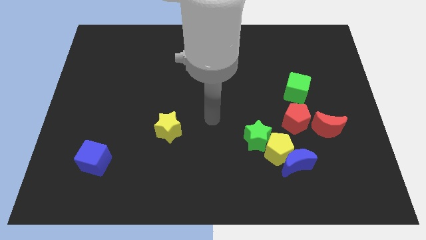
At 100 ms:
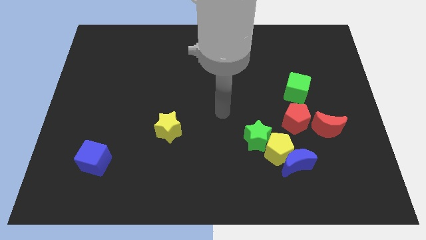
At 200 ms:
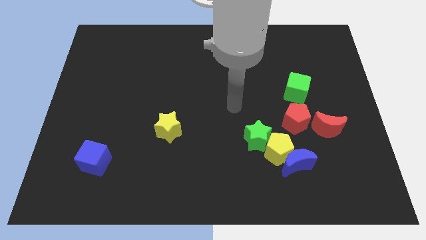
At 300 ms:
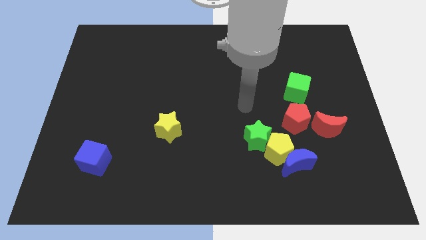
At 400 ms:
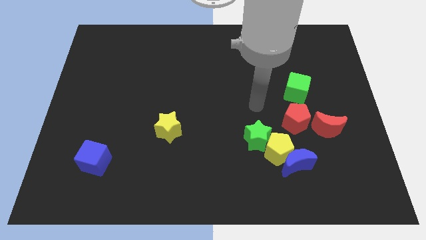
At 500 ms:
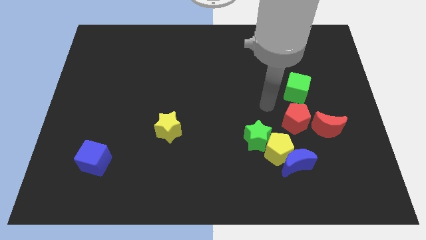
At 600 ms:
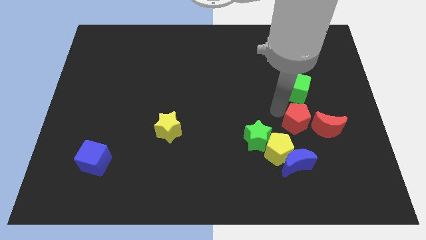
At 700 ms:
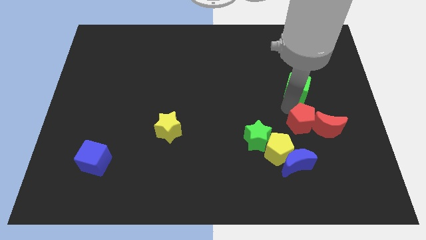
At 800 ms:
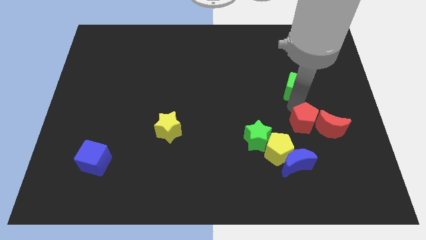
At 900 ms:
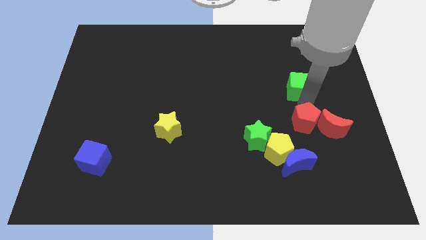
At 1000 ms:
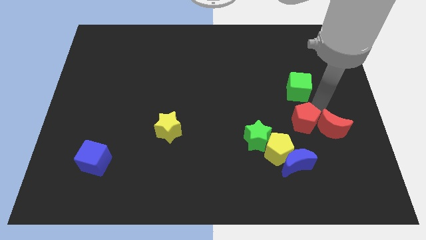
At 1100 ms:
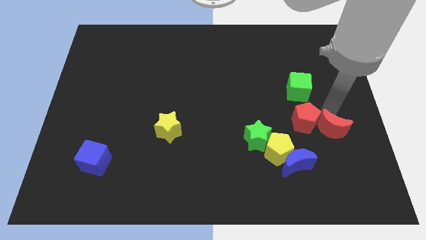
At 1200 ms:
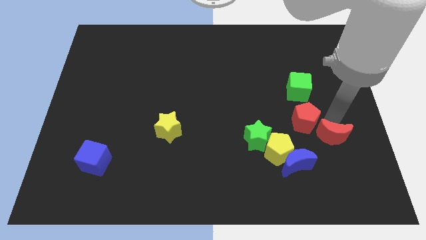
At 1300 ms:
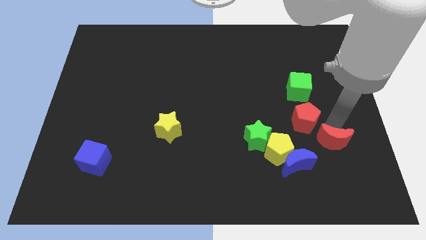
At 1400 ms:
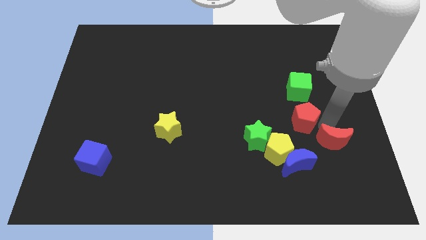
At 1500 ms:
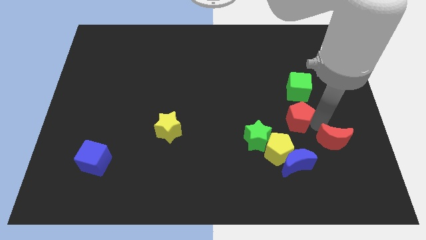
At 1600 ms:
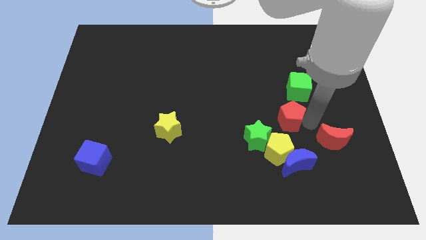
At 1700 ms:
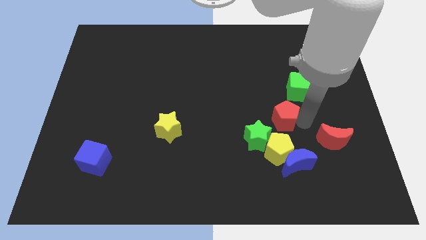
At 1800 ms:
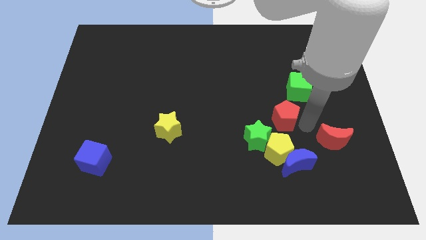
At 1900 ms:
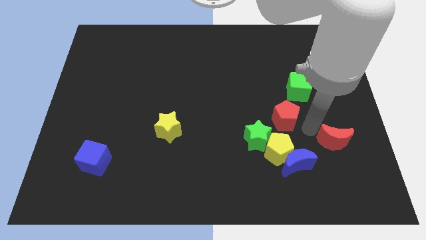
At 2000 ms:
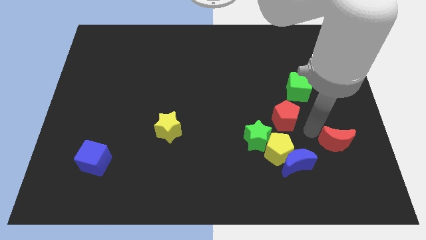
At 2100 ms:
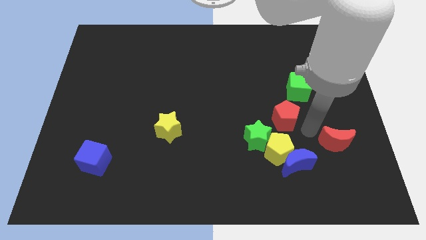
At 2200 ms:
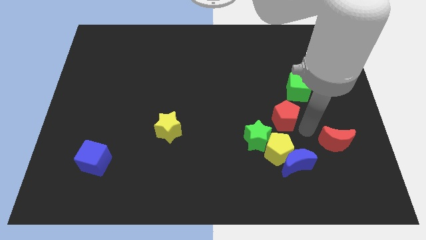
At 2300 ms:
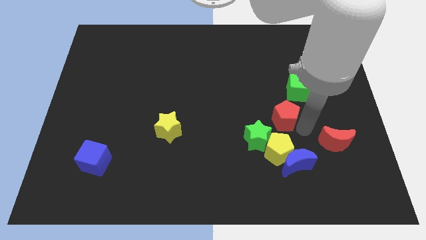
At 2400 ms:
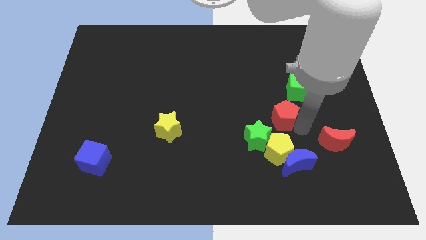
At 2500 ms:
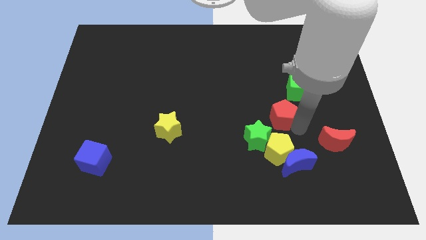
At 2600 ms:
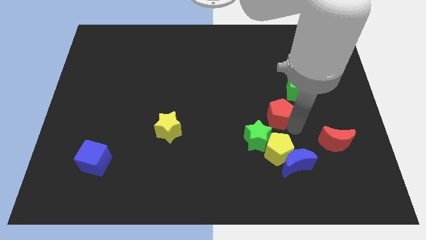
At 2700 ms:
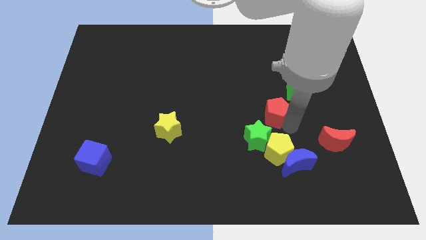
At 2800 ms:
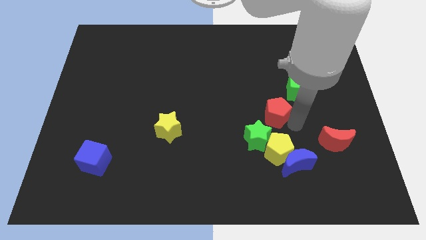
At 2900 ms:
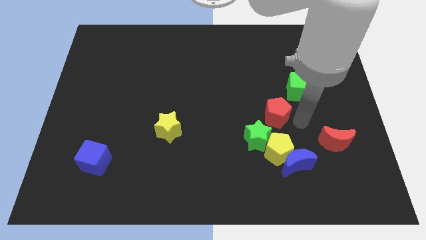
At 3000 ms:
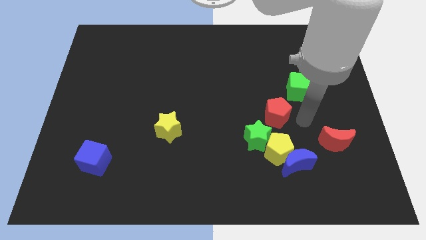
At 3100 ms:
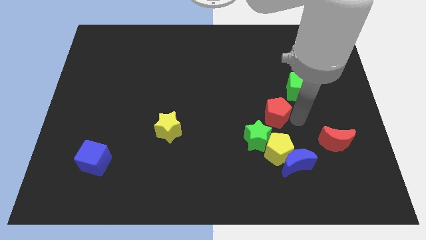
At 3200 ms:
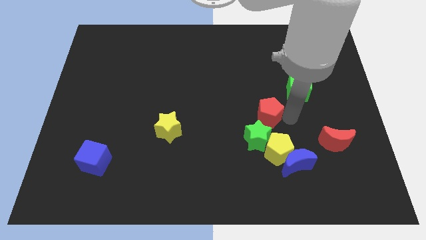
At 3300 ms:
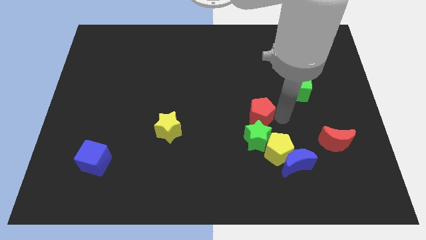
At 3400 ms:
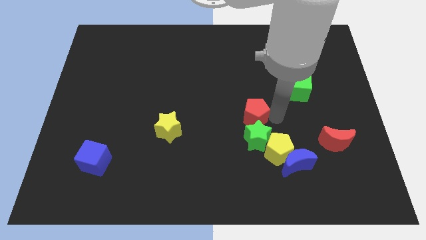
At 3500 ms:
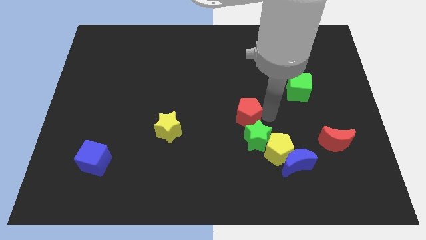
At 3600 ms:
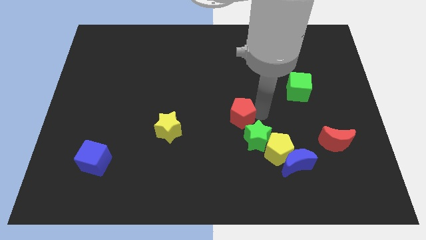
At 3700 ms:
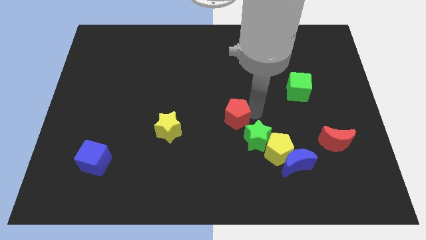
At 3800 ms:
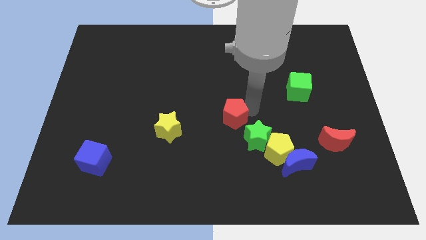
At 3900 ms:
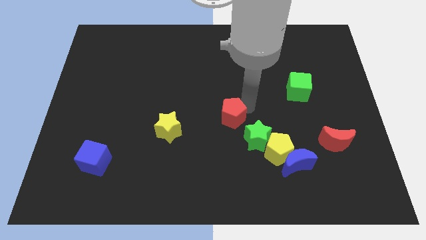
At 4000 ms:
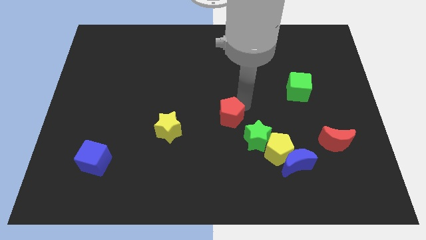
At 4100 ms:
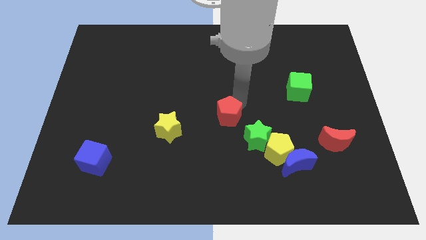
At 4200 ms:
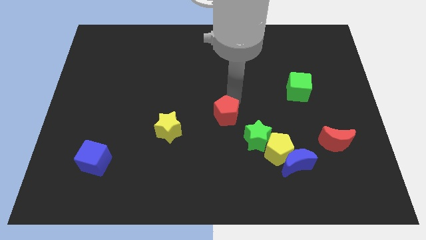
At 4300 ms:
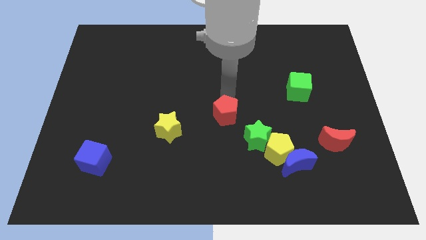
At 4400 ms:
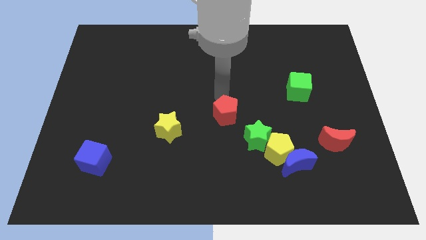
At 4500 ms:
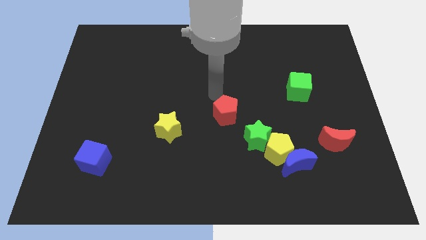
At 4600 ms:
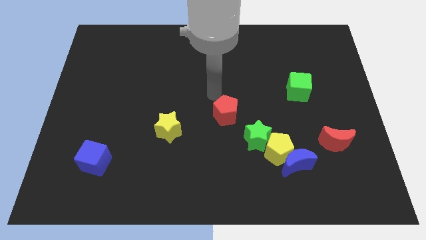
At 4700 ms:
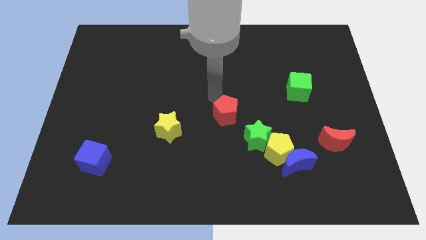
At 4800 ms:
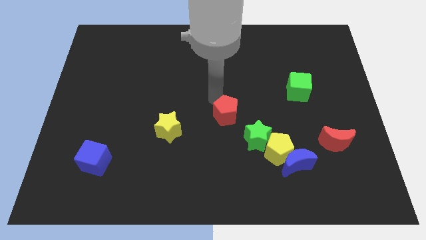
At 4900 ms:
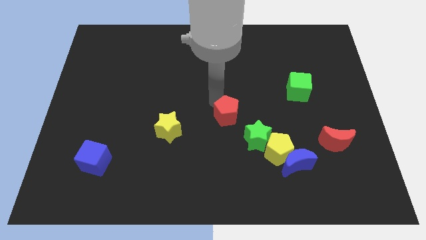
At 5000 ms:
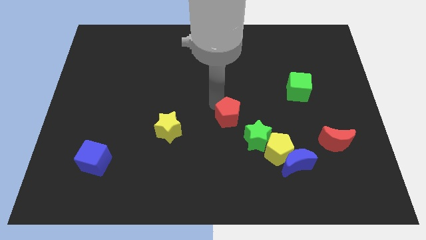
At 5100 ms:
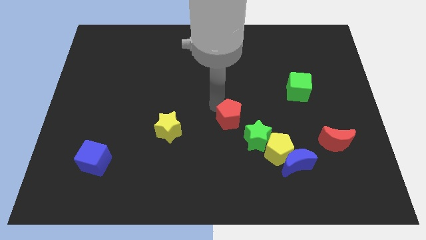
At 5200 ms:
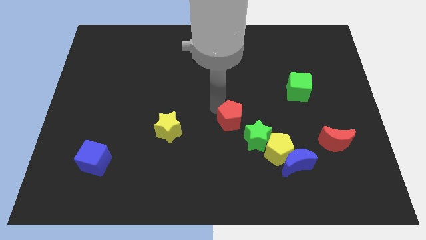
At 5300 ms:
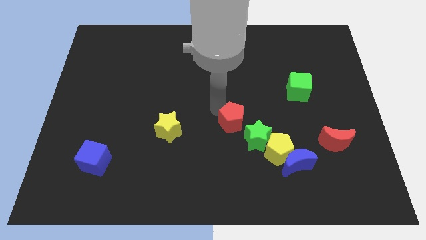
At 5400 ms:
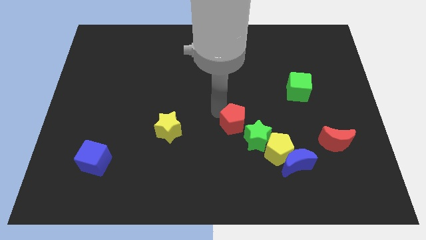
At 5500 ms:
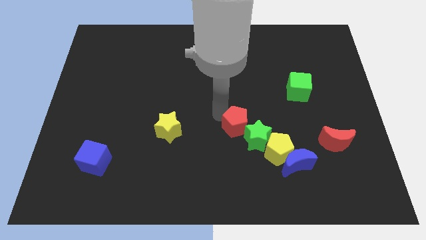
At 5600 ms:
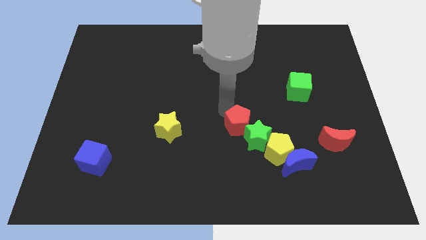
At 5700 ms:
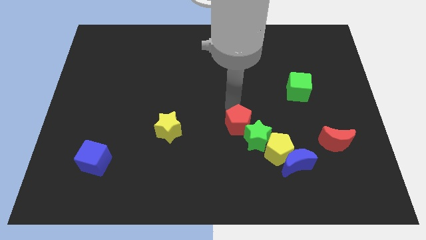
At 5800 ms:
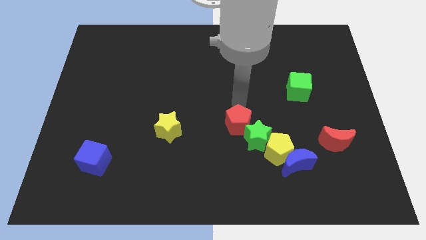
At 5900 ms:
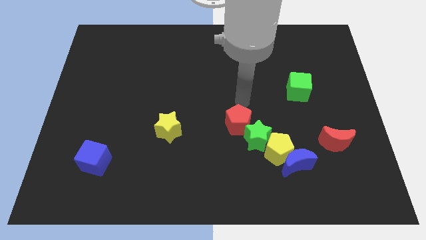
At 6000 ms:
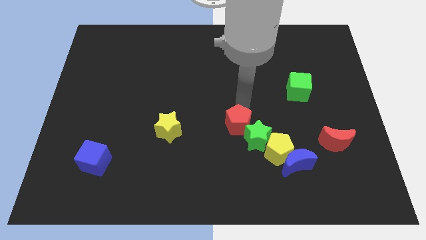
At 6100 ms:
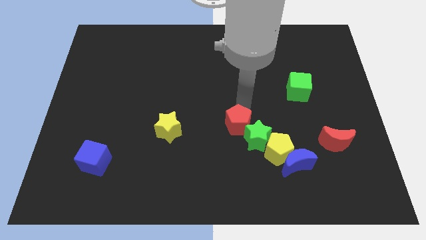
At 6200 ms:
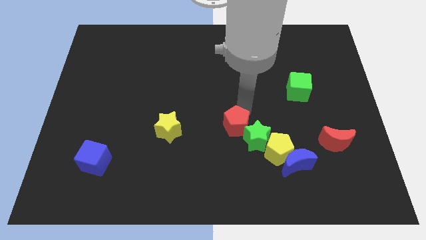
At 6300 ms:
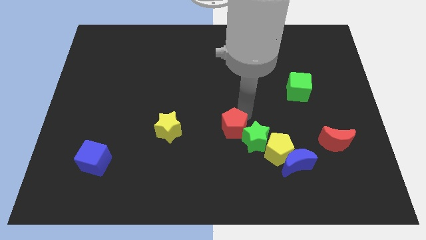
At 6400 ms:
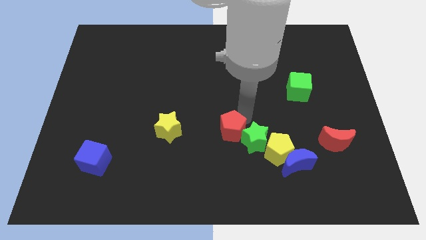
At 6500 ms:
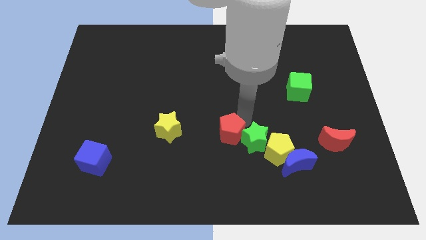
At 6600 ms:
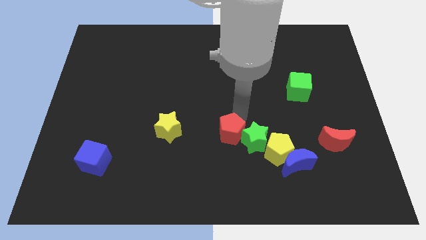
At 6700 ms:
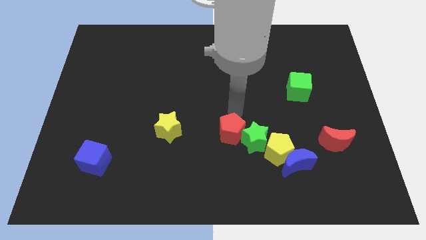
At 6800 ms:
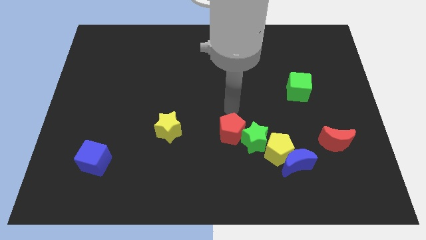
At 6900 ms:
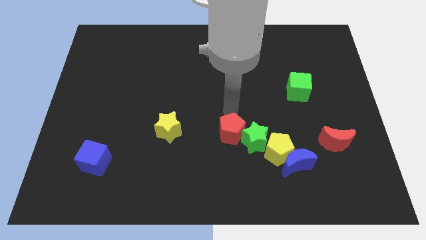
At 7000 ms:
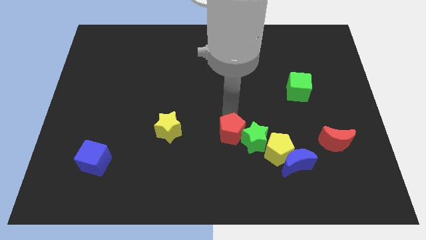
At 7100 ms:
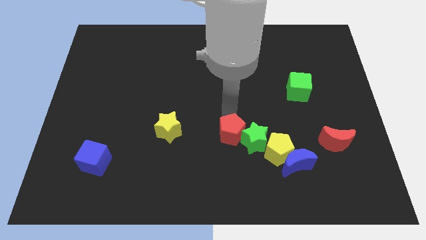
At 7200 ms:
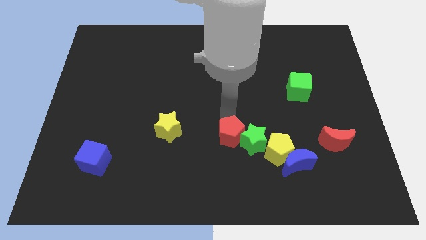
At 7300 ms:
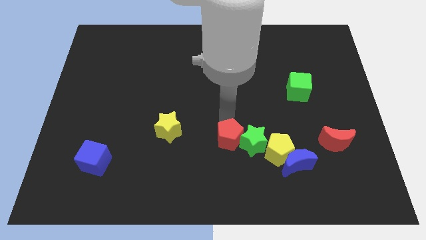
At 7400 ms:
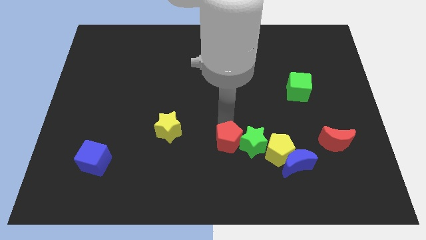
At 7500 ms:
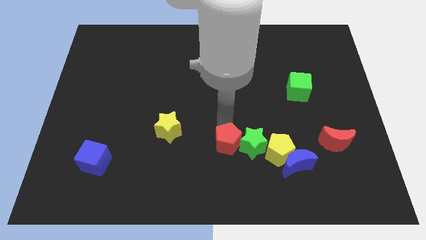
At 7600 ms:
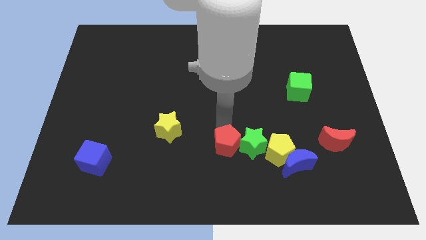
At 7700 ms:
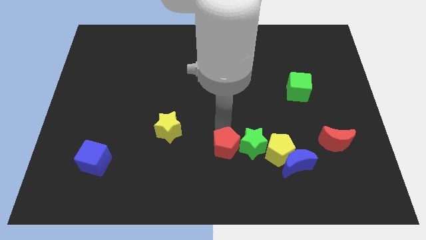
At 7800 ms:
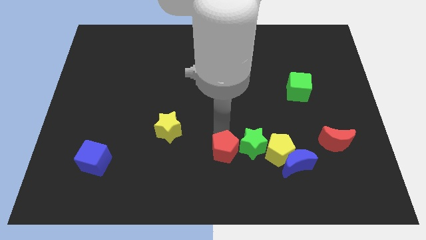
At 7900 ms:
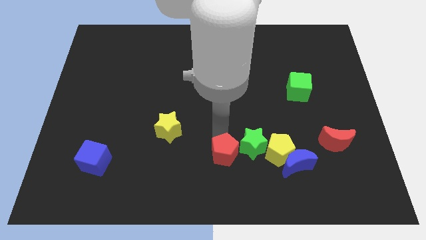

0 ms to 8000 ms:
move the red pentagon to the bottom side
